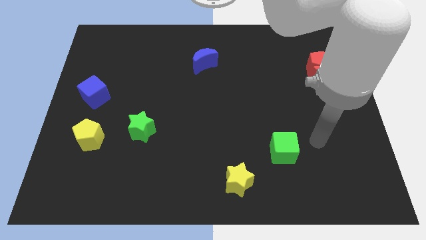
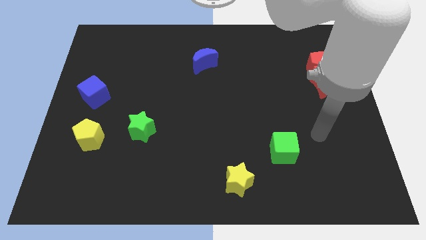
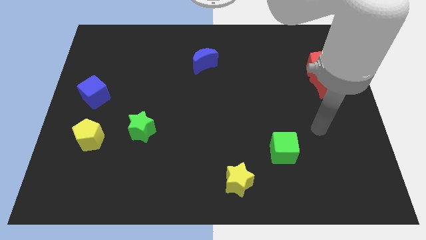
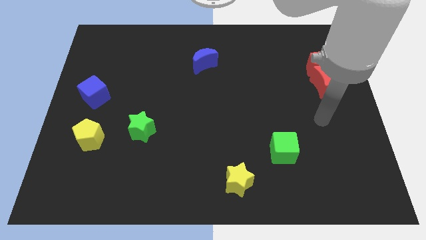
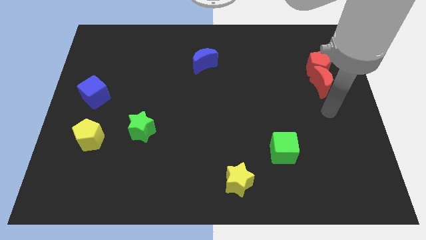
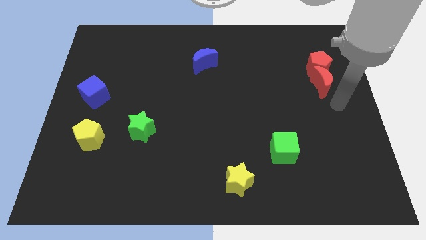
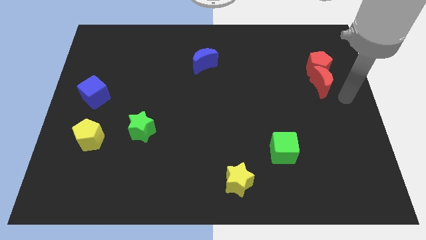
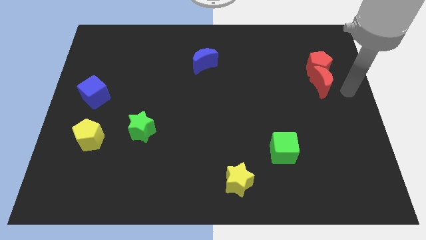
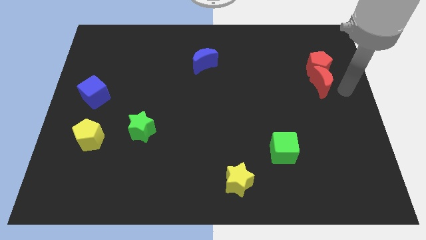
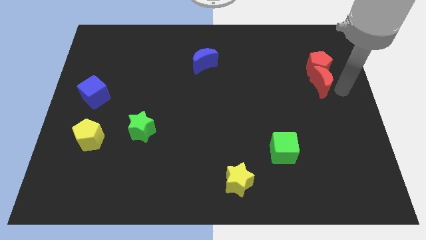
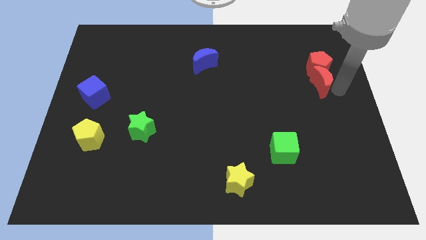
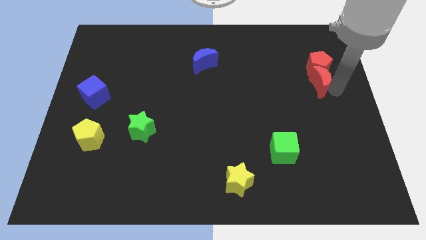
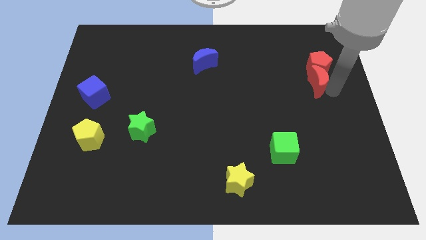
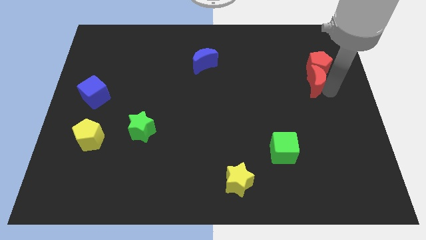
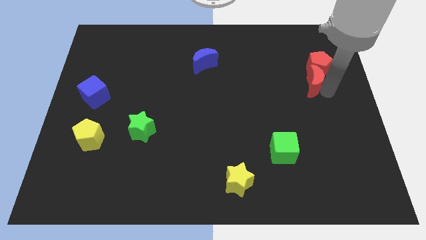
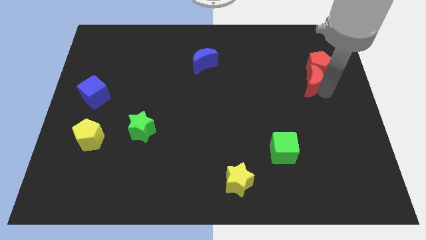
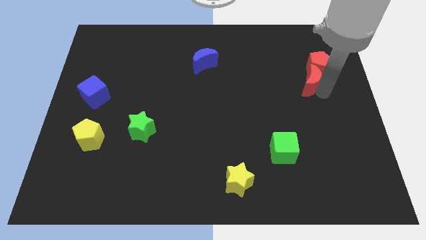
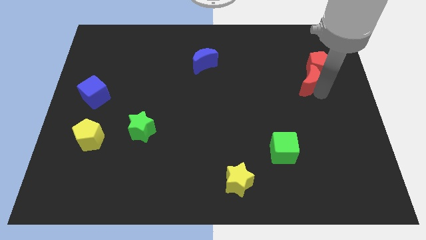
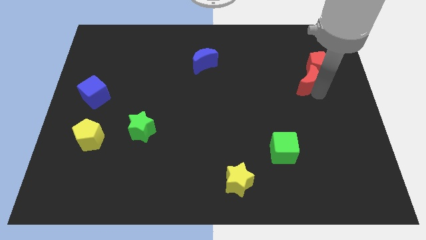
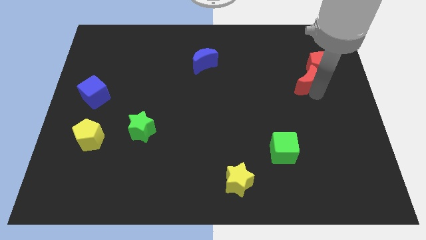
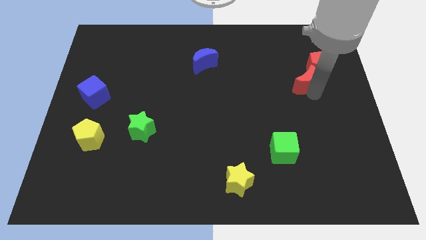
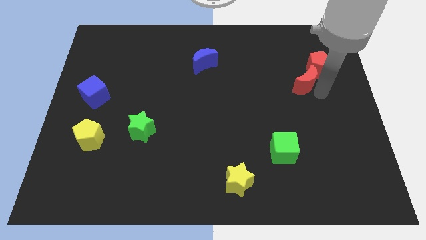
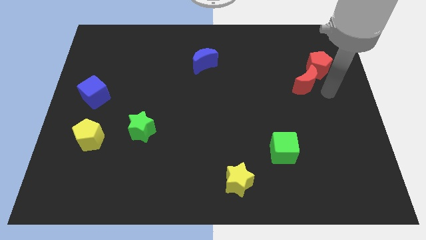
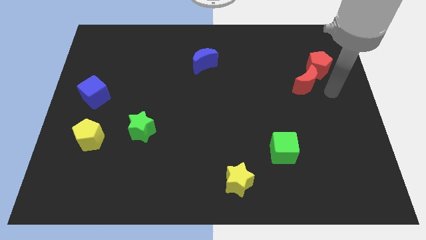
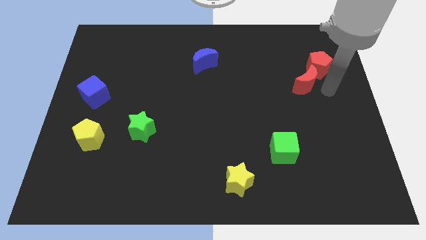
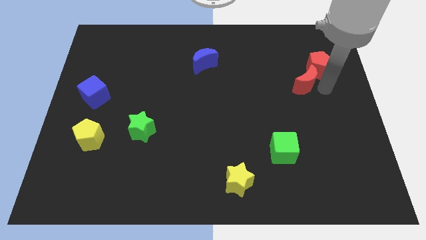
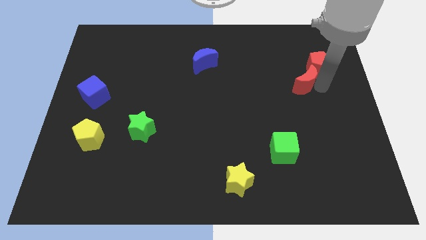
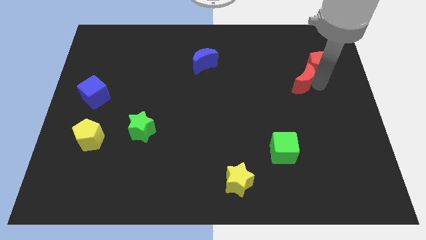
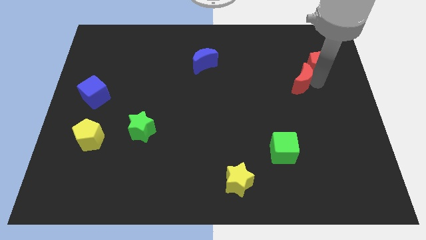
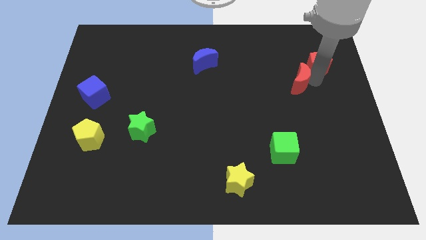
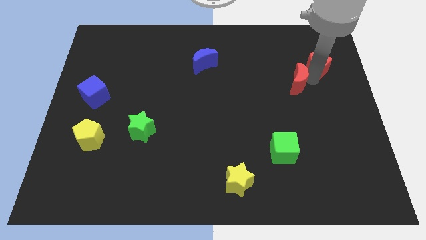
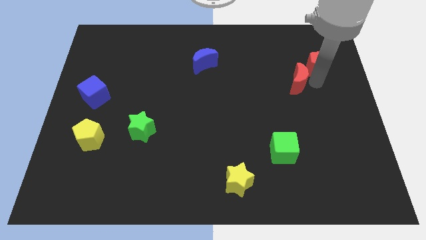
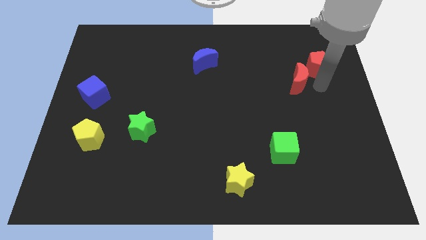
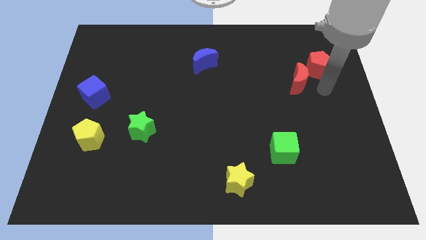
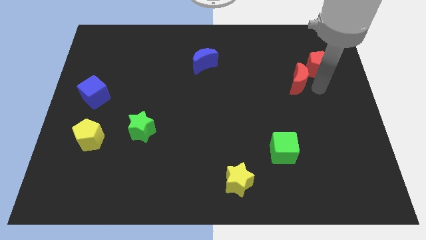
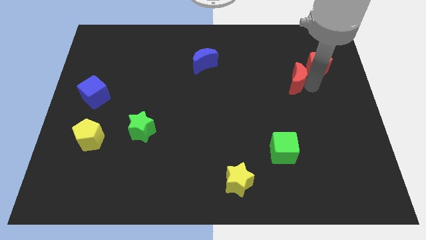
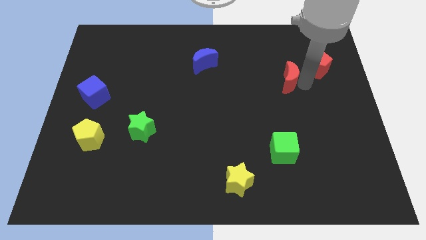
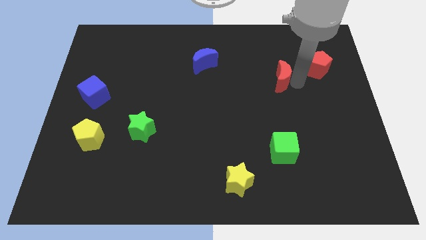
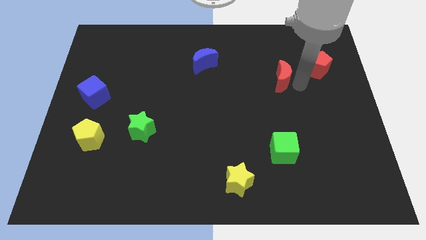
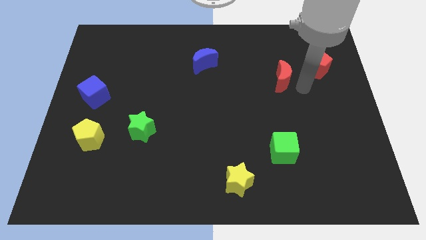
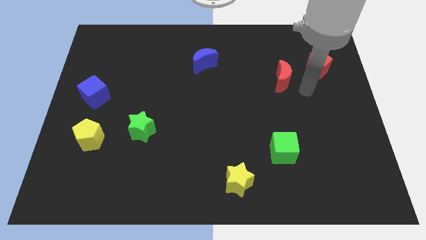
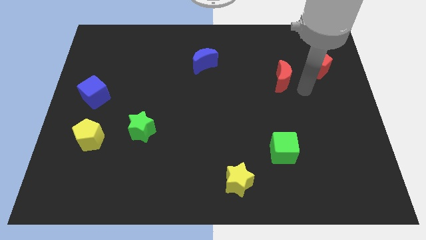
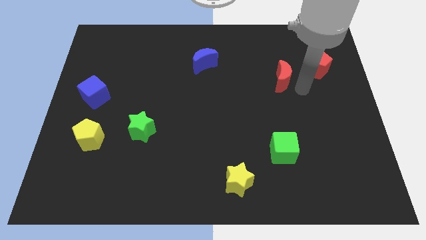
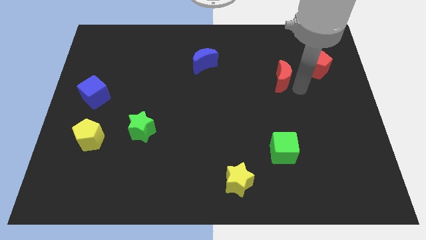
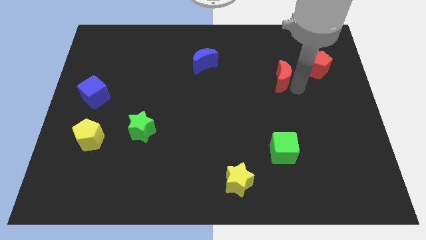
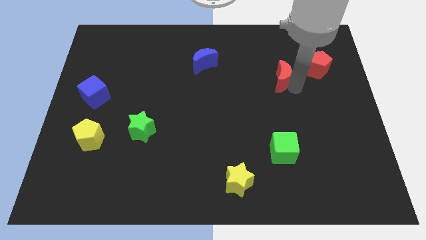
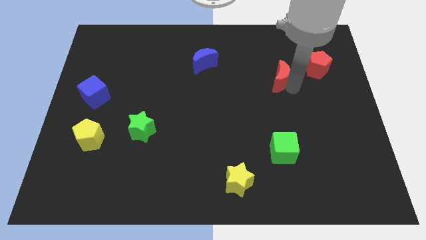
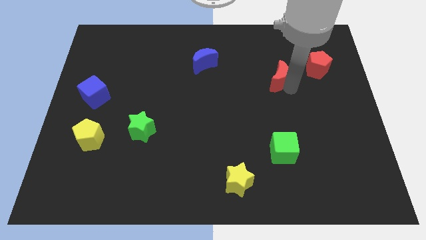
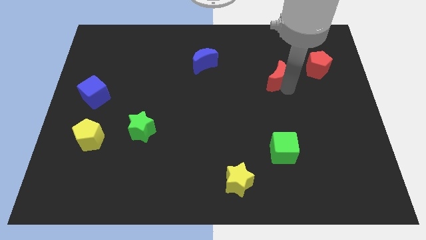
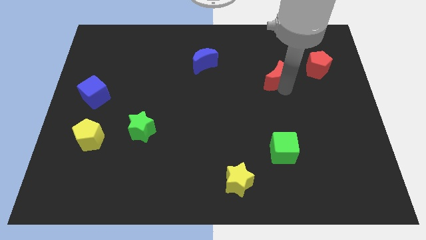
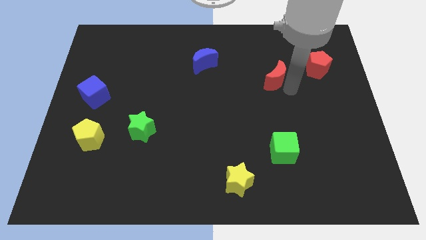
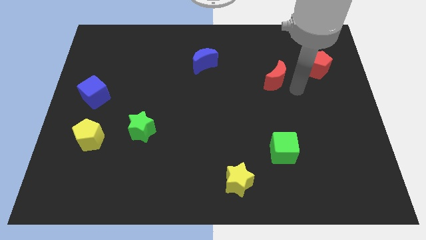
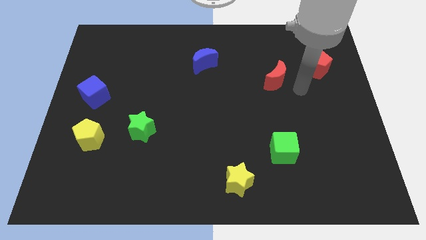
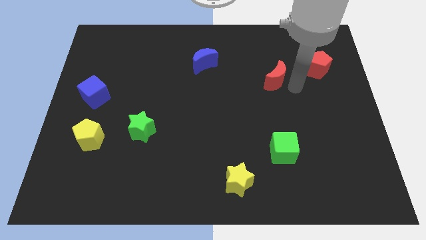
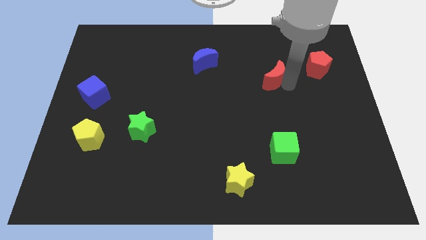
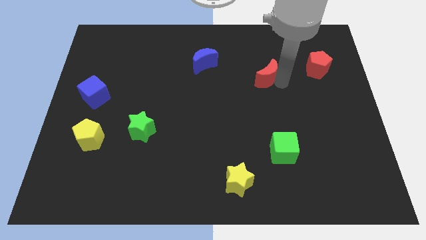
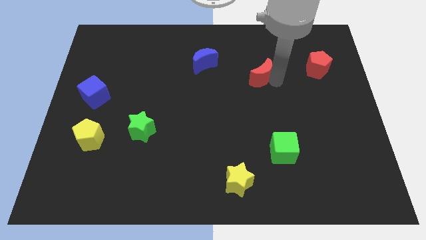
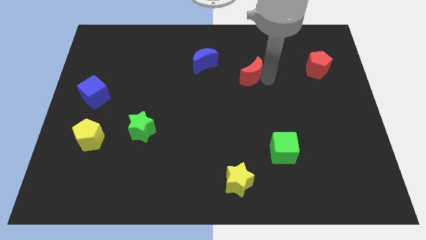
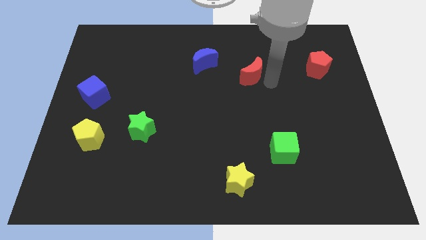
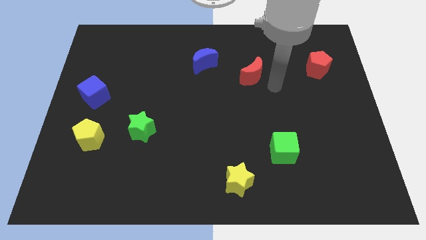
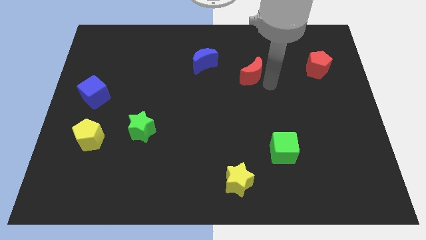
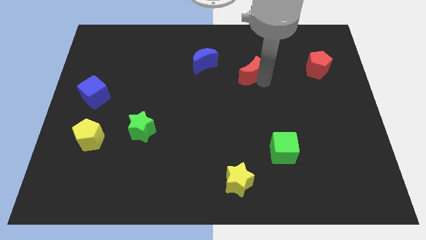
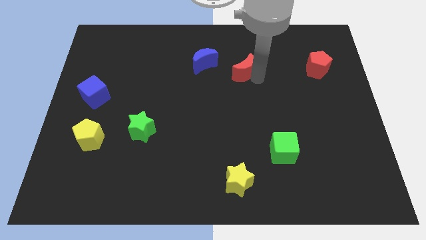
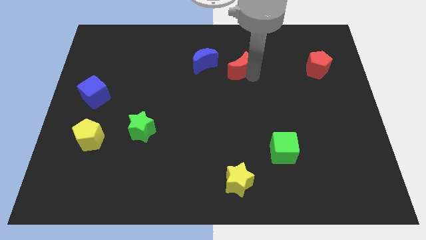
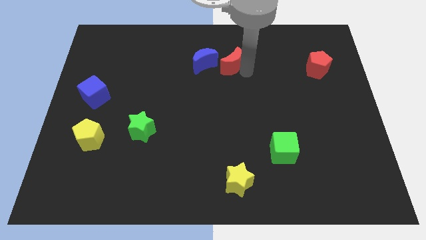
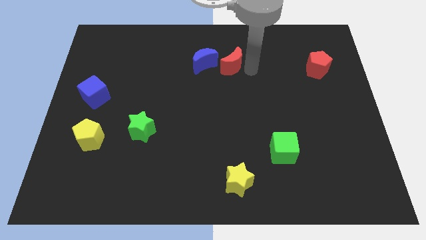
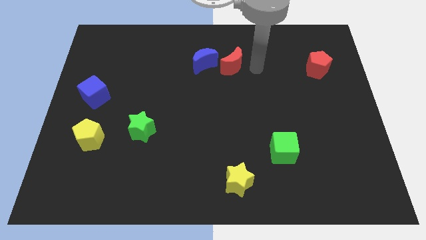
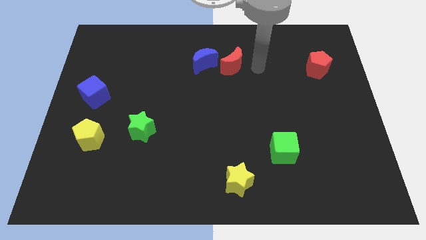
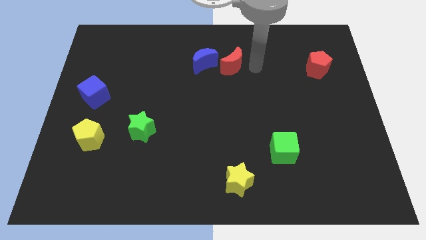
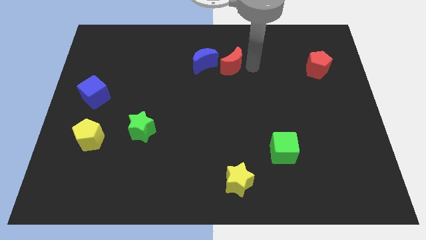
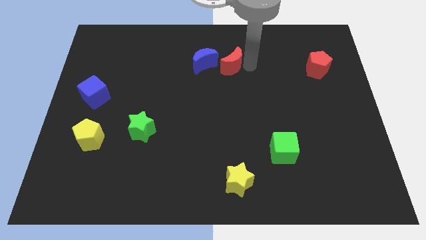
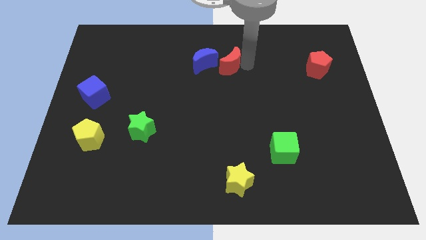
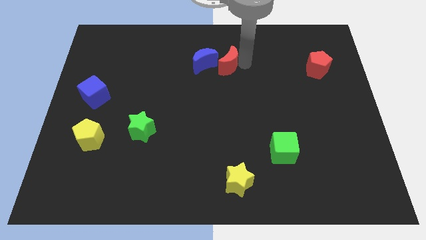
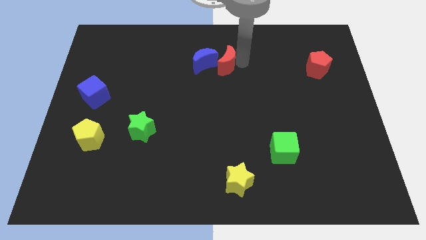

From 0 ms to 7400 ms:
put the red moon towards the blue moon

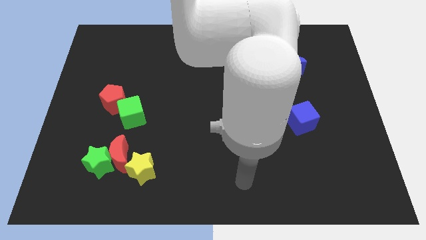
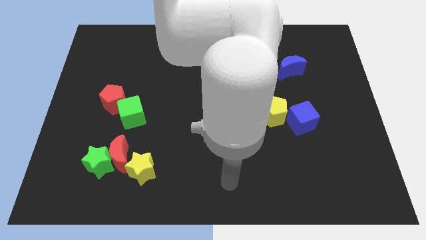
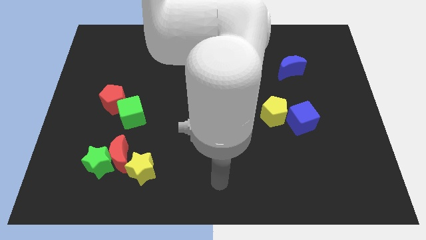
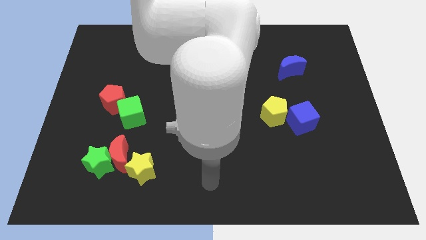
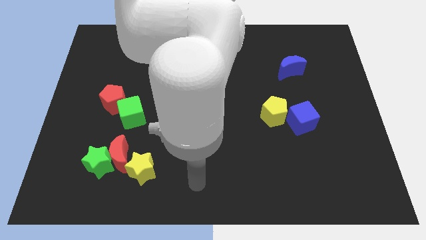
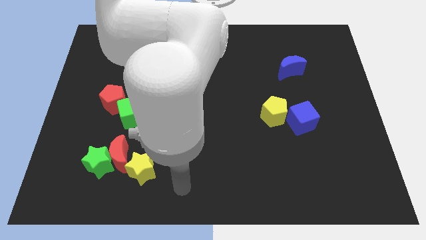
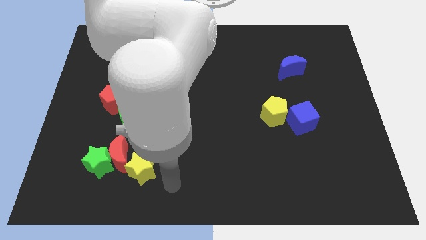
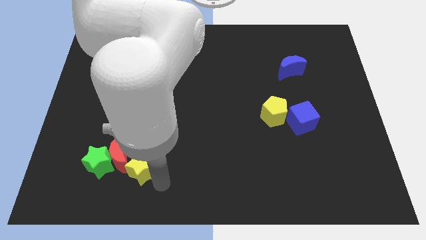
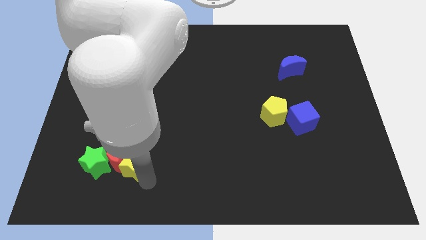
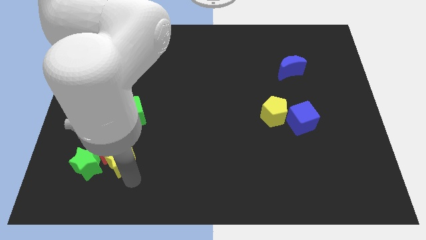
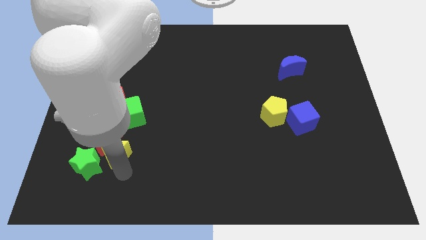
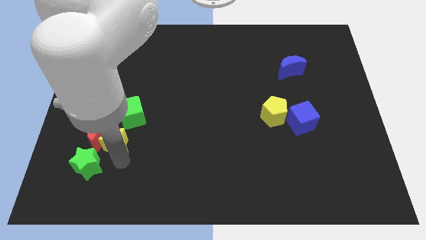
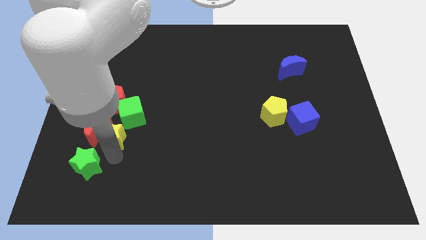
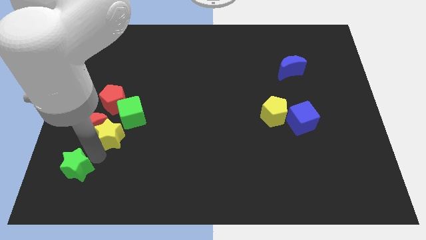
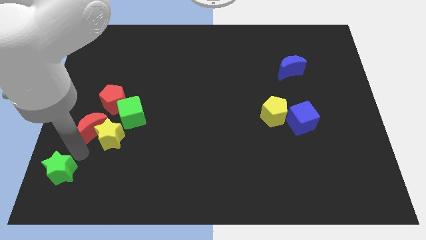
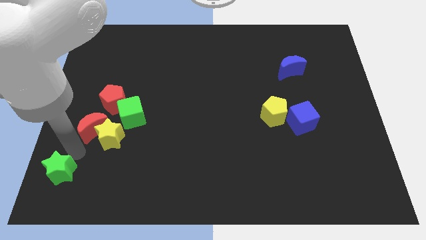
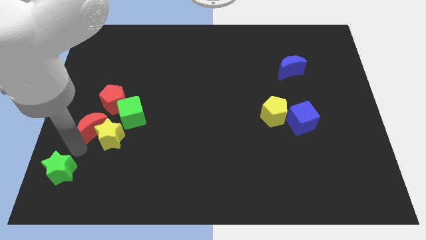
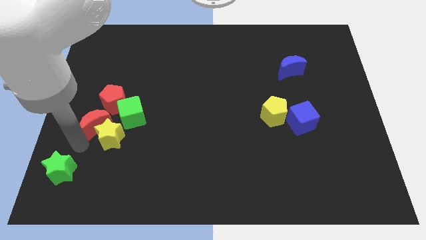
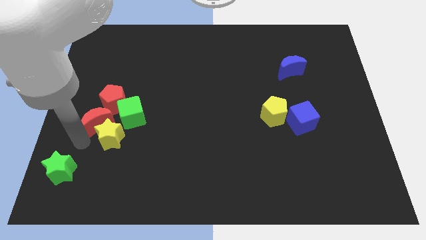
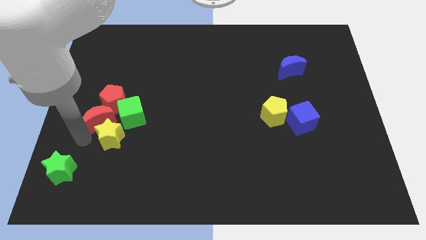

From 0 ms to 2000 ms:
put the red moon close to the red pentagon
